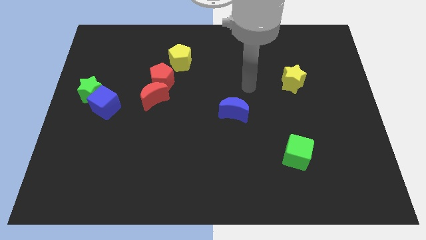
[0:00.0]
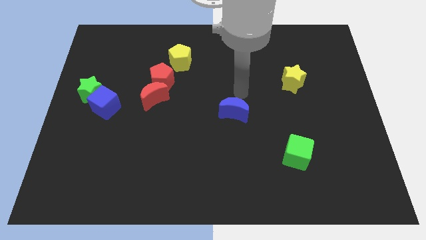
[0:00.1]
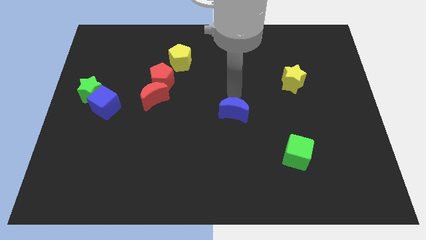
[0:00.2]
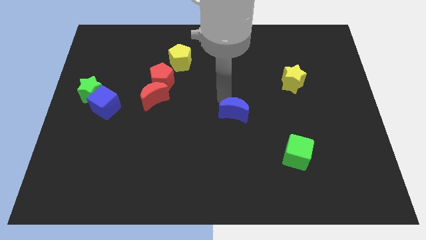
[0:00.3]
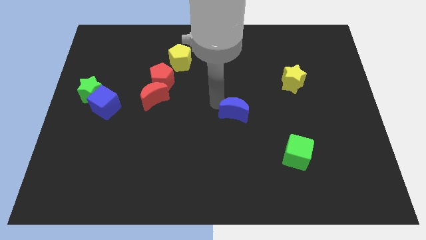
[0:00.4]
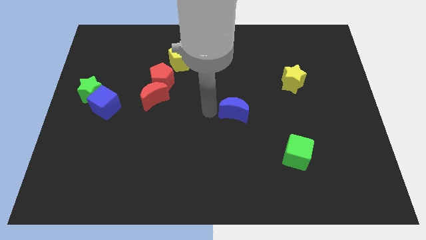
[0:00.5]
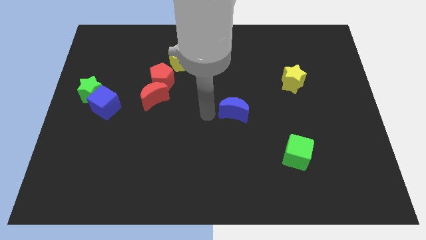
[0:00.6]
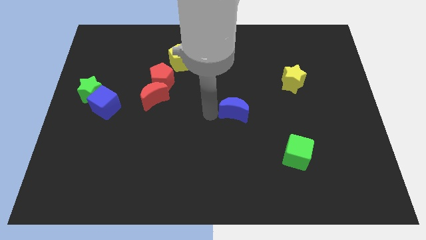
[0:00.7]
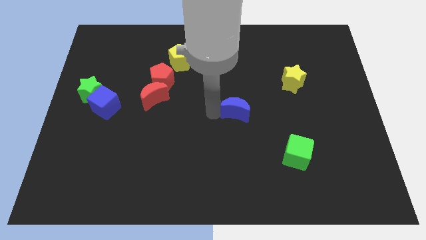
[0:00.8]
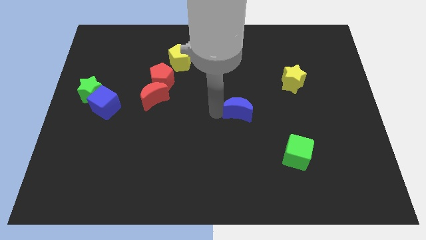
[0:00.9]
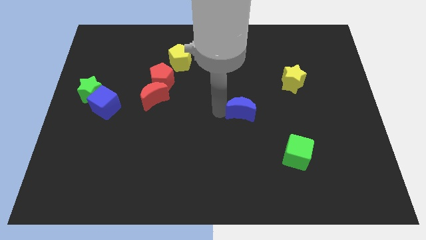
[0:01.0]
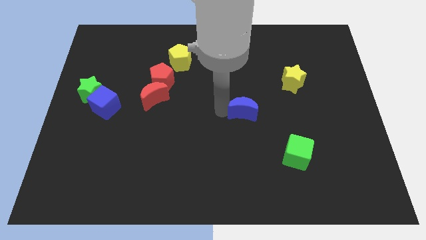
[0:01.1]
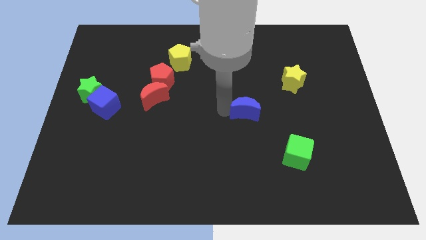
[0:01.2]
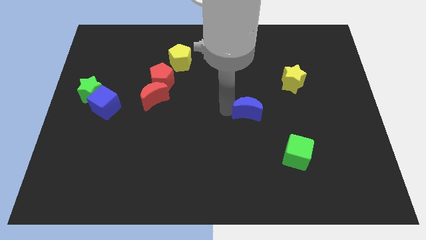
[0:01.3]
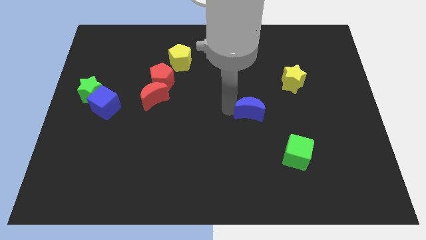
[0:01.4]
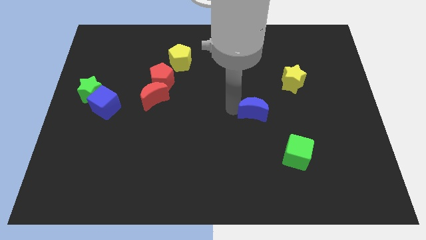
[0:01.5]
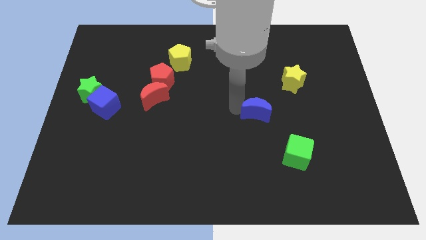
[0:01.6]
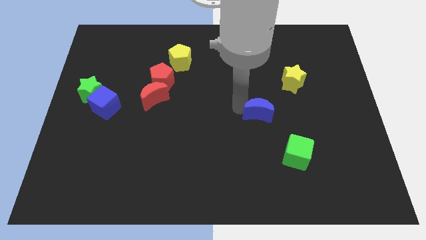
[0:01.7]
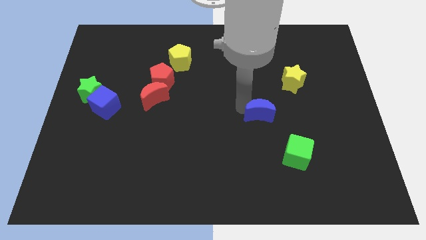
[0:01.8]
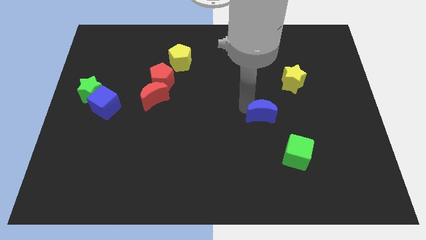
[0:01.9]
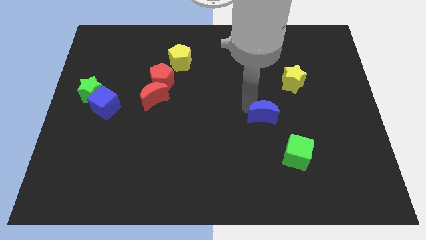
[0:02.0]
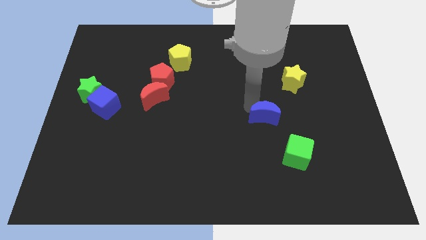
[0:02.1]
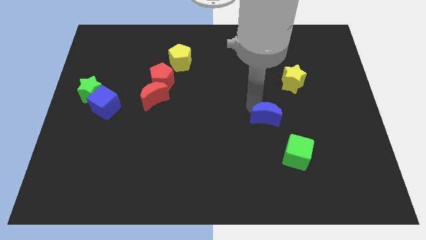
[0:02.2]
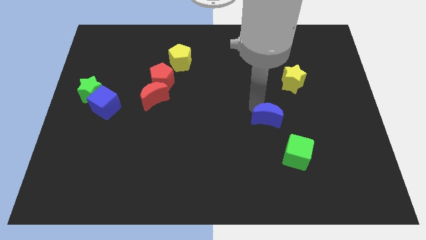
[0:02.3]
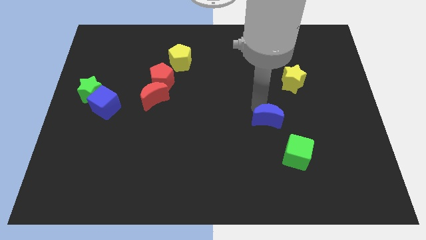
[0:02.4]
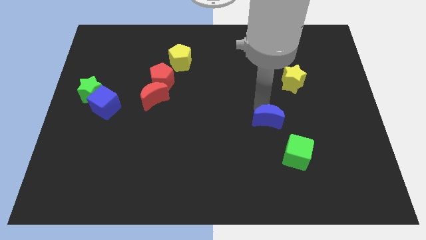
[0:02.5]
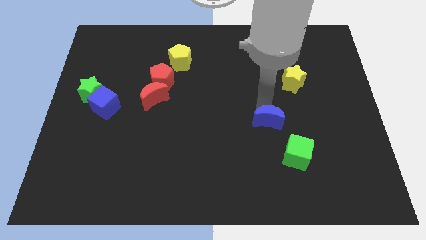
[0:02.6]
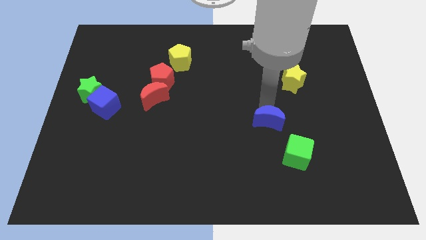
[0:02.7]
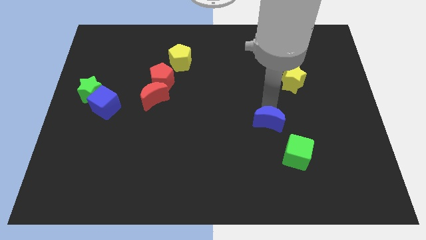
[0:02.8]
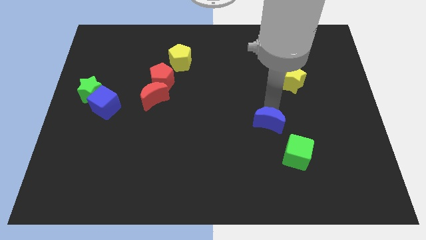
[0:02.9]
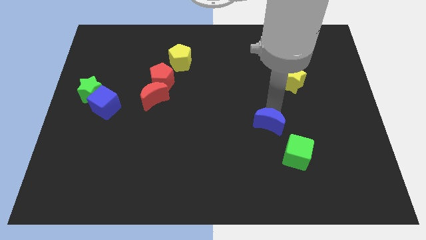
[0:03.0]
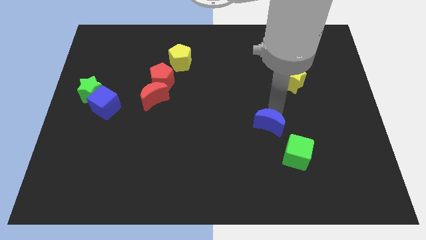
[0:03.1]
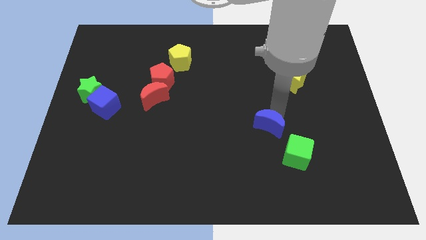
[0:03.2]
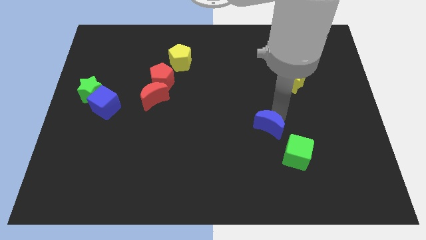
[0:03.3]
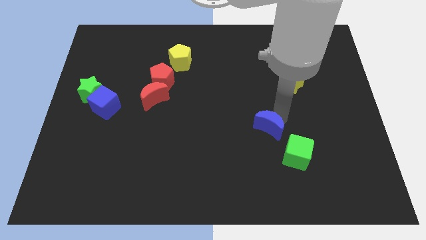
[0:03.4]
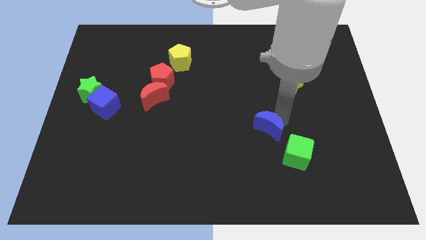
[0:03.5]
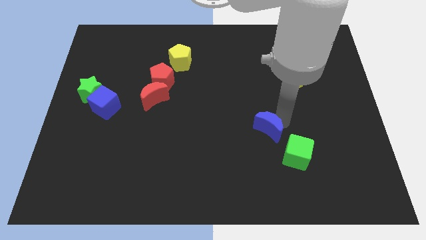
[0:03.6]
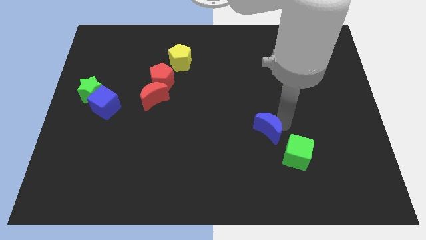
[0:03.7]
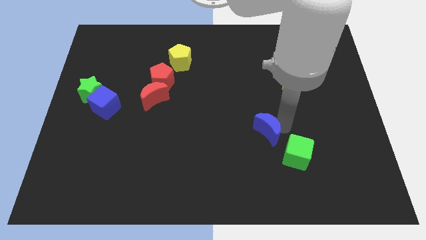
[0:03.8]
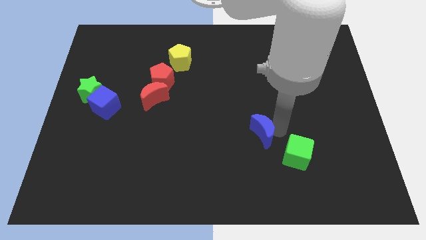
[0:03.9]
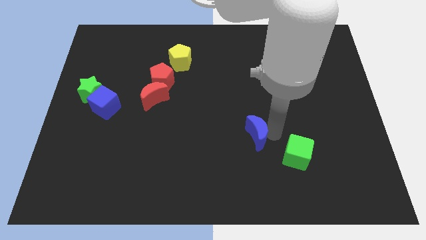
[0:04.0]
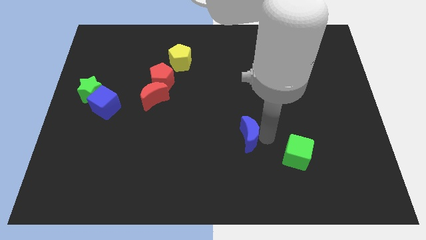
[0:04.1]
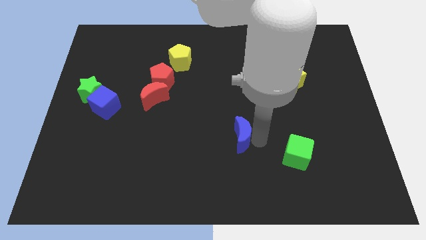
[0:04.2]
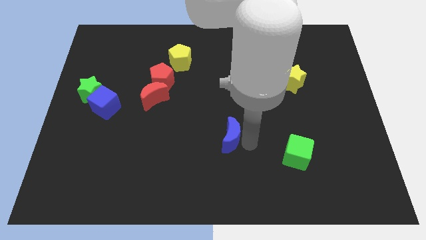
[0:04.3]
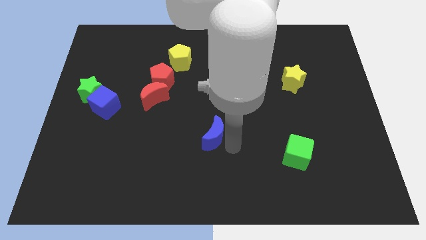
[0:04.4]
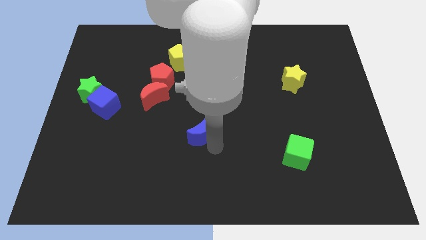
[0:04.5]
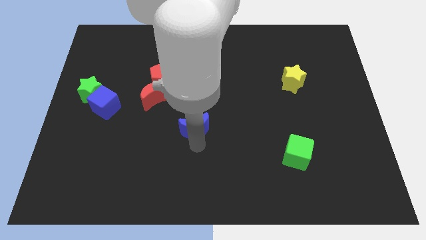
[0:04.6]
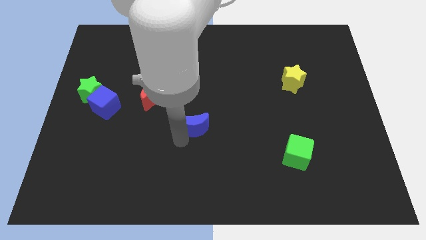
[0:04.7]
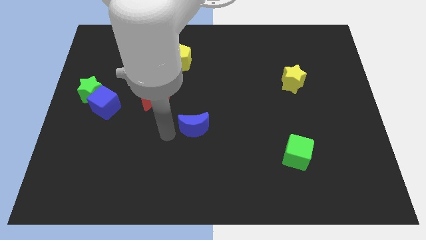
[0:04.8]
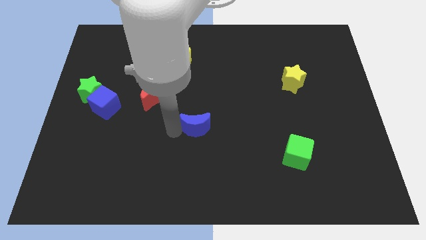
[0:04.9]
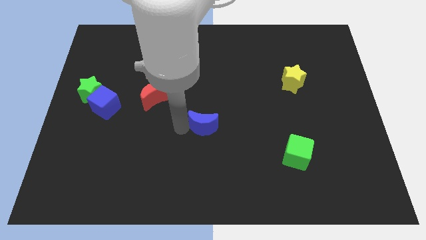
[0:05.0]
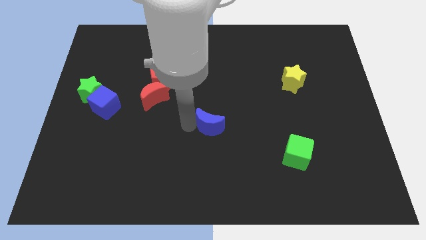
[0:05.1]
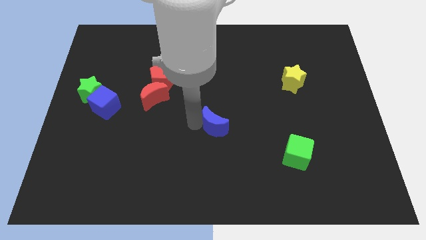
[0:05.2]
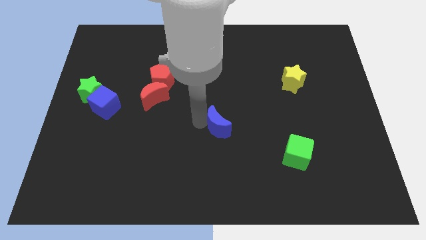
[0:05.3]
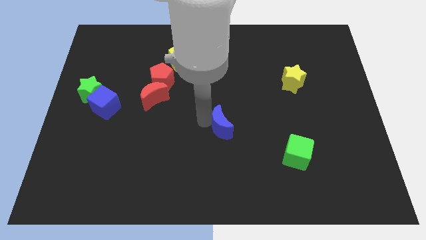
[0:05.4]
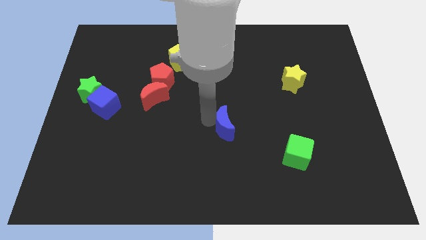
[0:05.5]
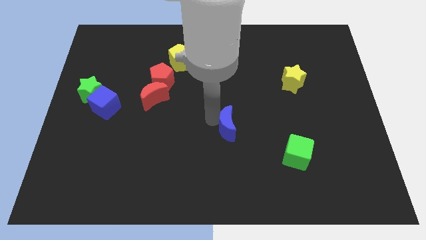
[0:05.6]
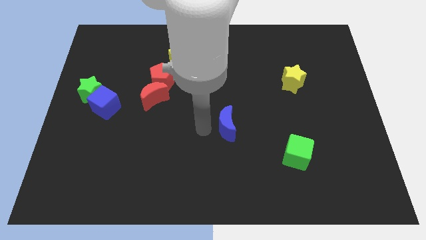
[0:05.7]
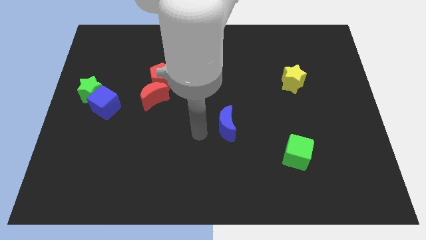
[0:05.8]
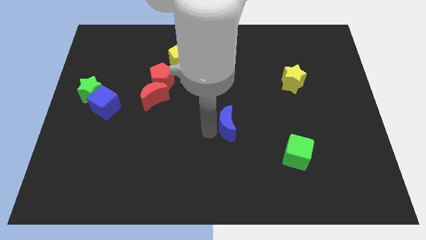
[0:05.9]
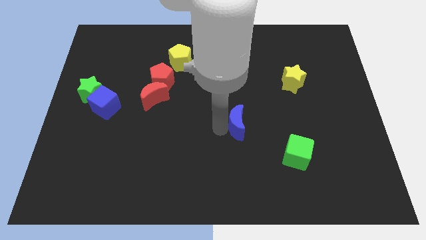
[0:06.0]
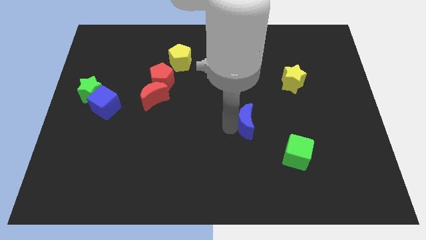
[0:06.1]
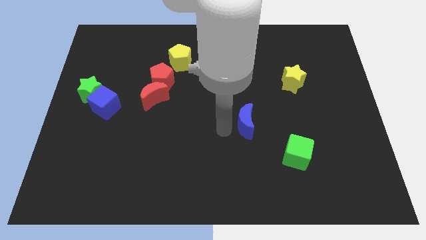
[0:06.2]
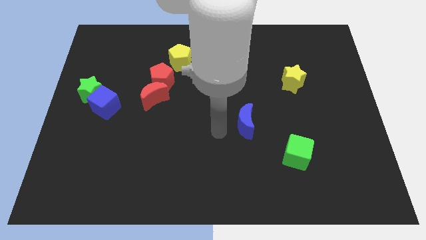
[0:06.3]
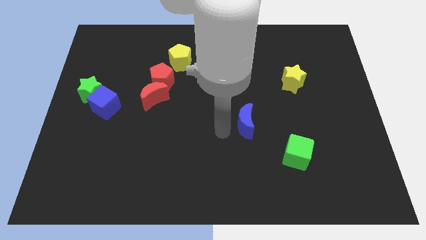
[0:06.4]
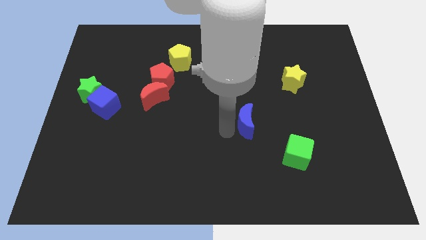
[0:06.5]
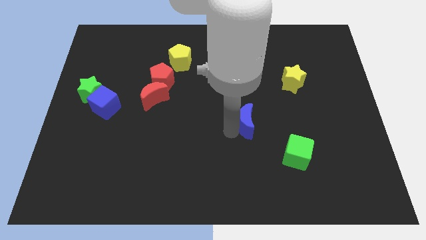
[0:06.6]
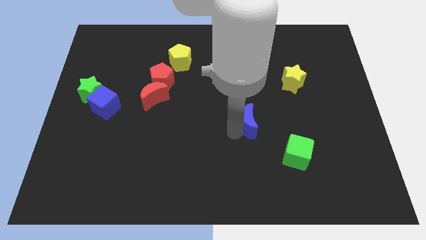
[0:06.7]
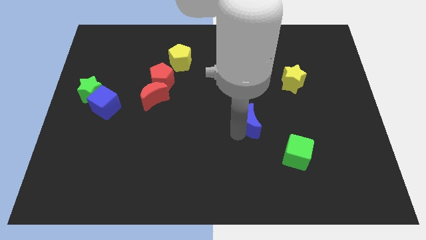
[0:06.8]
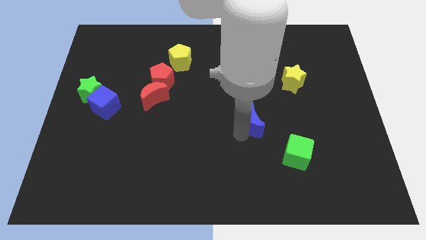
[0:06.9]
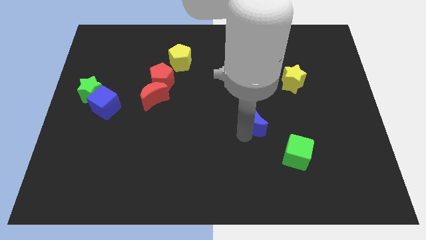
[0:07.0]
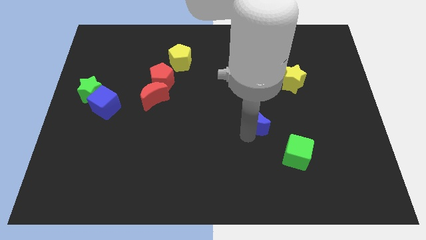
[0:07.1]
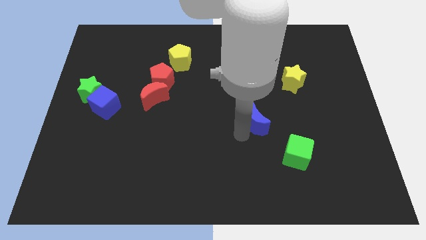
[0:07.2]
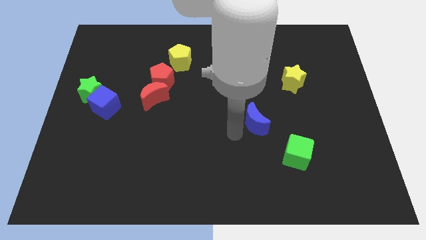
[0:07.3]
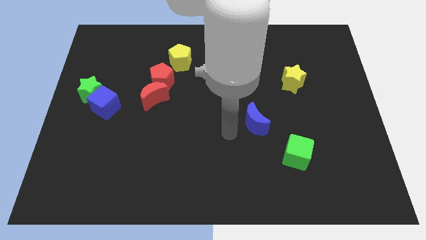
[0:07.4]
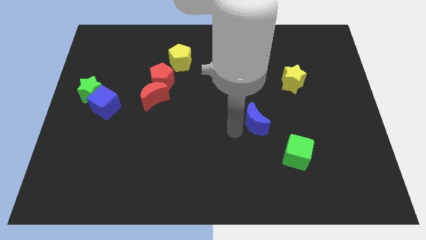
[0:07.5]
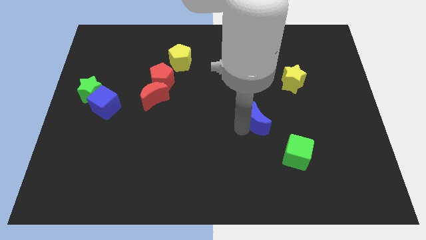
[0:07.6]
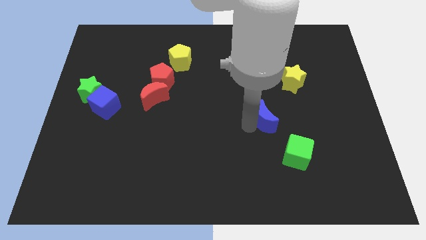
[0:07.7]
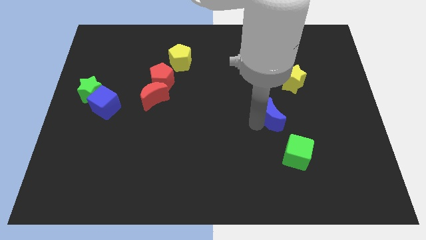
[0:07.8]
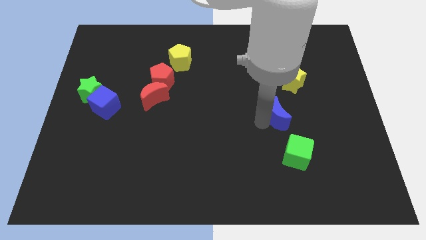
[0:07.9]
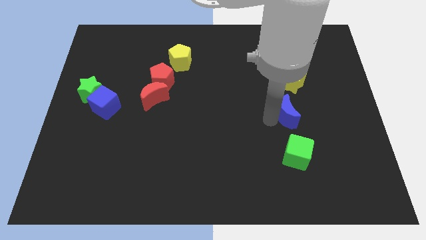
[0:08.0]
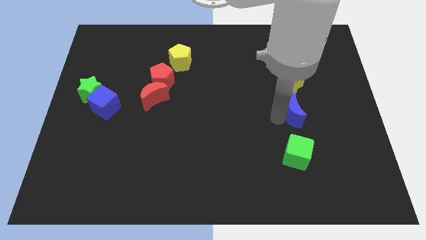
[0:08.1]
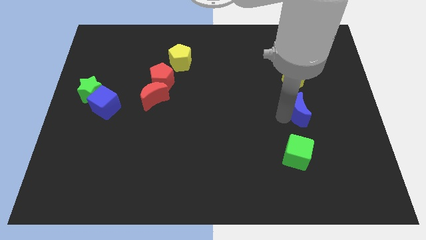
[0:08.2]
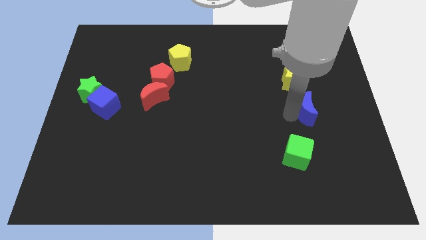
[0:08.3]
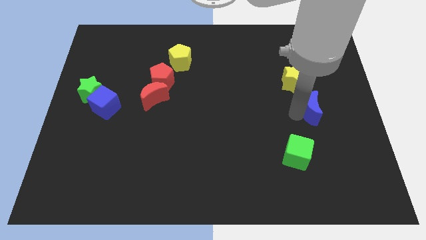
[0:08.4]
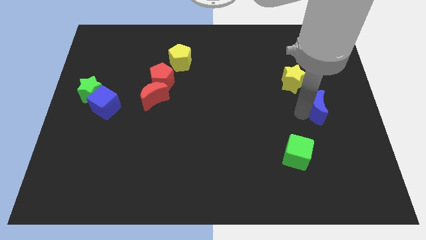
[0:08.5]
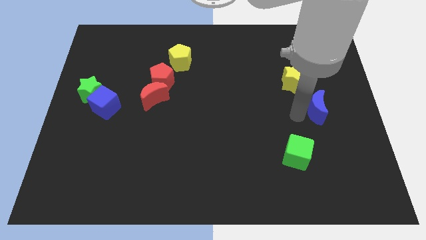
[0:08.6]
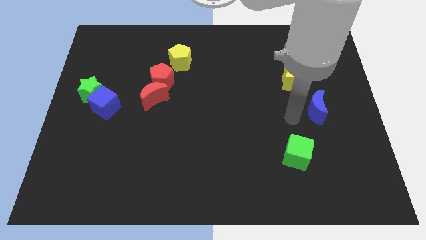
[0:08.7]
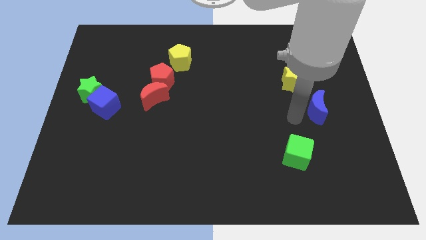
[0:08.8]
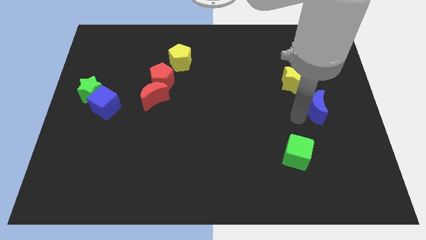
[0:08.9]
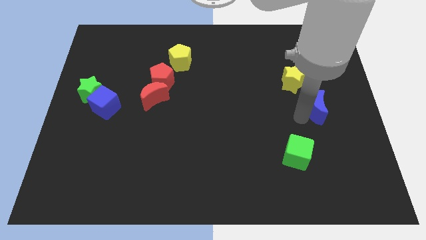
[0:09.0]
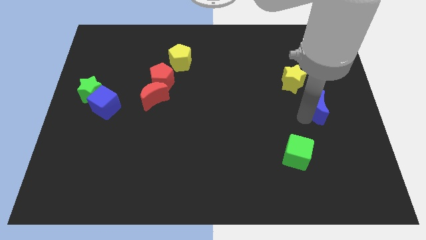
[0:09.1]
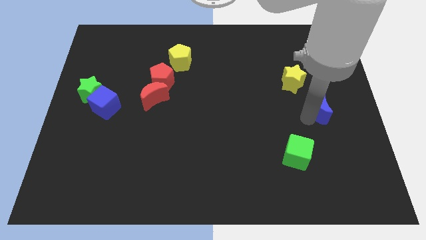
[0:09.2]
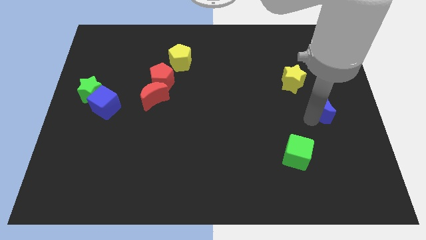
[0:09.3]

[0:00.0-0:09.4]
put the blue moon to the right side
